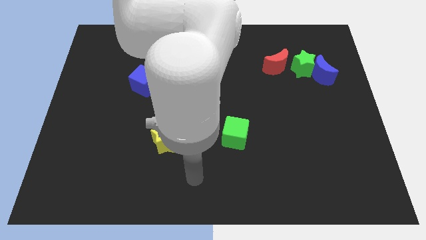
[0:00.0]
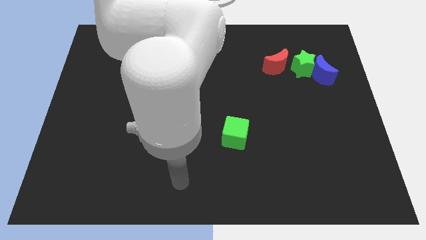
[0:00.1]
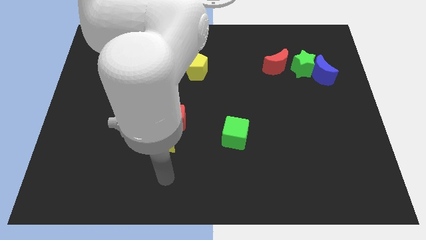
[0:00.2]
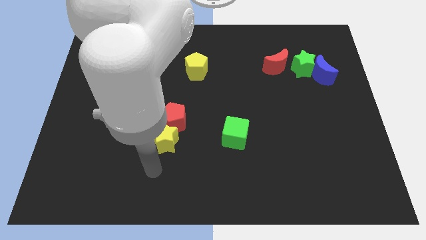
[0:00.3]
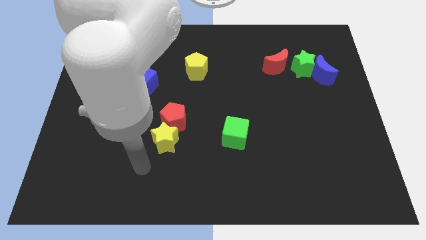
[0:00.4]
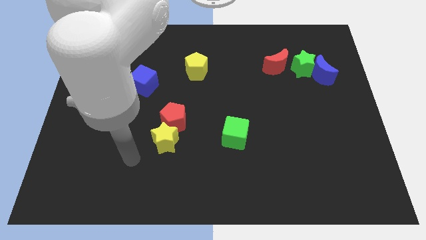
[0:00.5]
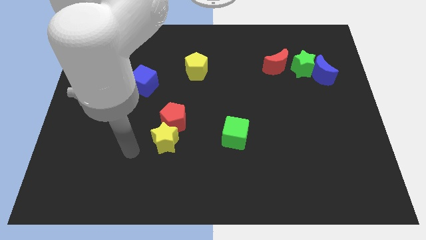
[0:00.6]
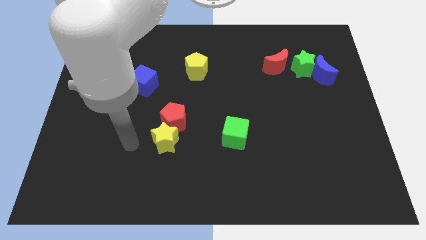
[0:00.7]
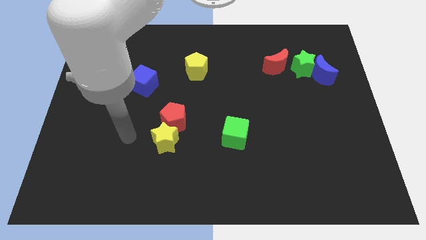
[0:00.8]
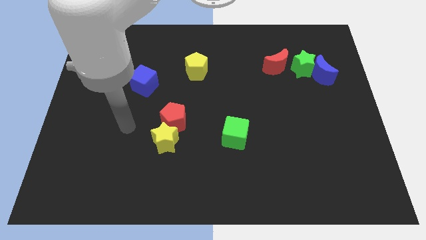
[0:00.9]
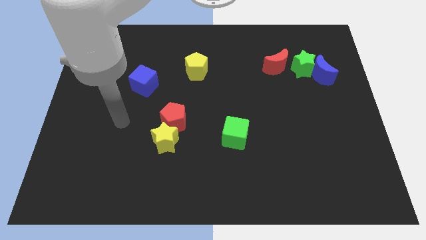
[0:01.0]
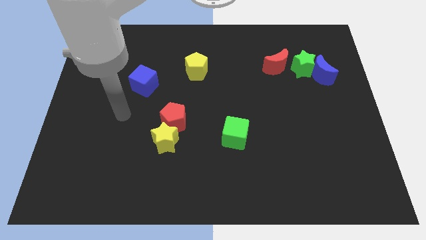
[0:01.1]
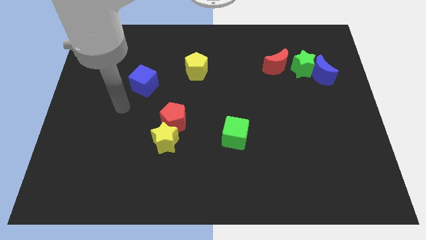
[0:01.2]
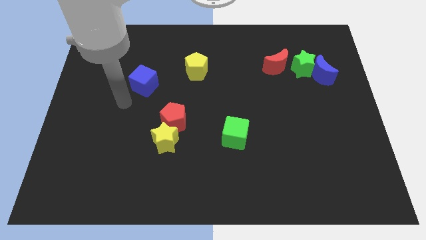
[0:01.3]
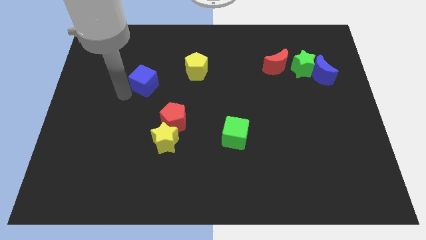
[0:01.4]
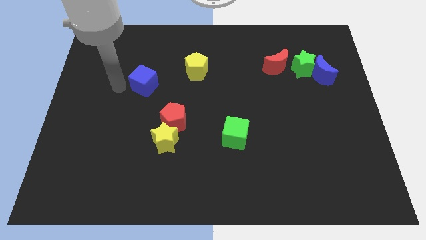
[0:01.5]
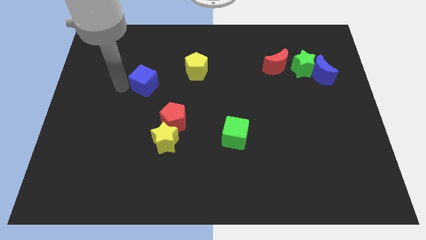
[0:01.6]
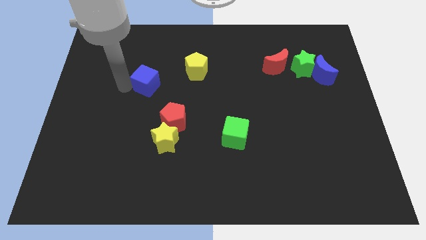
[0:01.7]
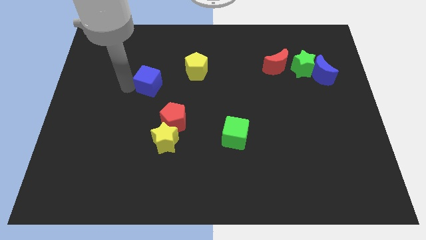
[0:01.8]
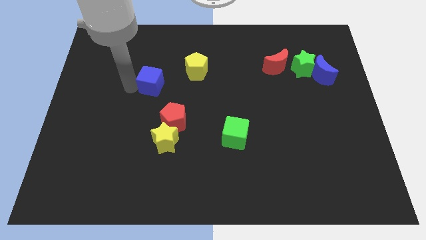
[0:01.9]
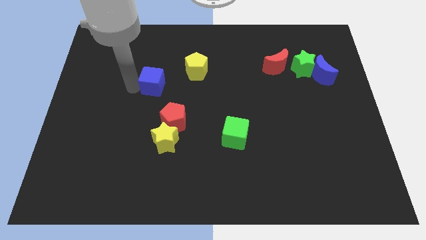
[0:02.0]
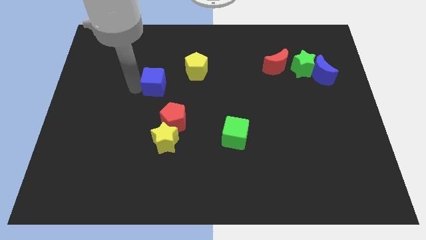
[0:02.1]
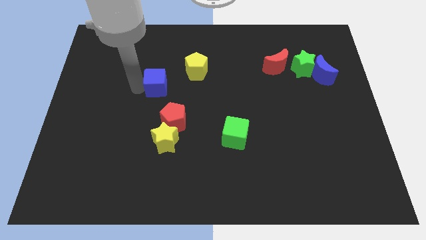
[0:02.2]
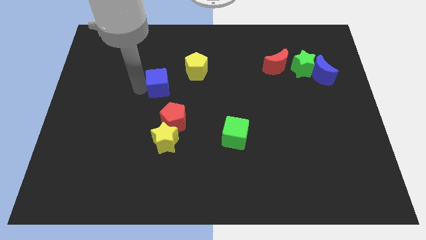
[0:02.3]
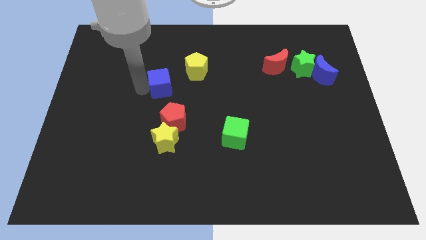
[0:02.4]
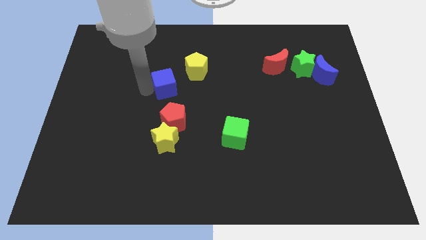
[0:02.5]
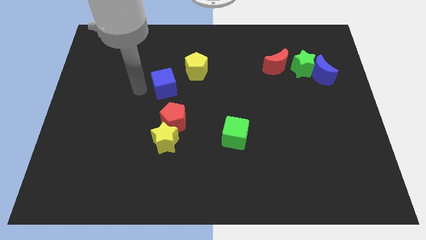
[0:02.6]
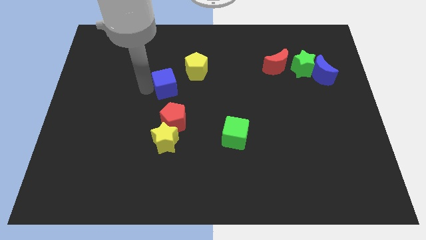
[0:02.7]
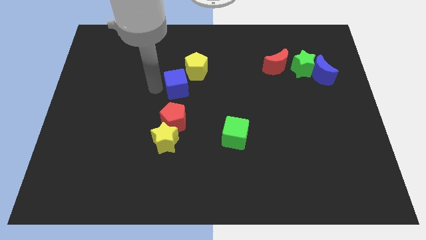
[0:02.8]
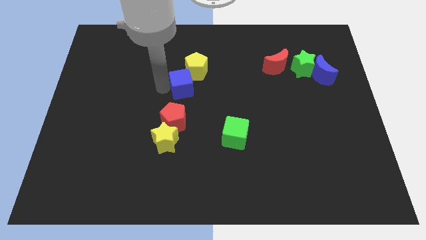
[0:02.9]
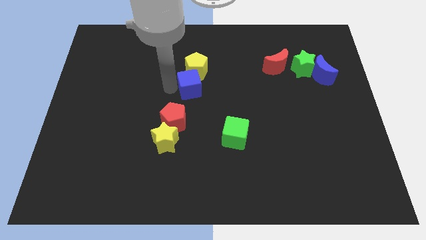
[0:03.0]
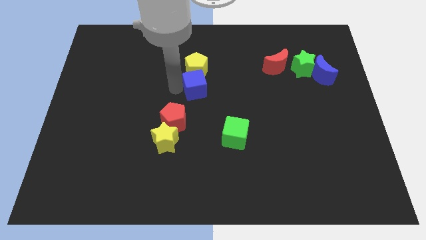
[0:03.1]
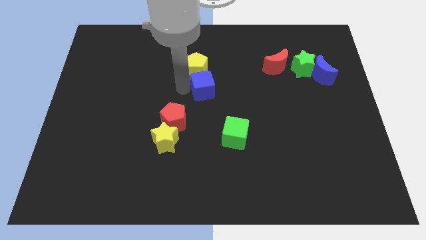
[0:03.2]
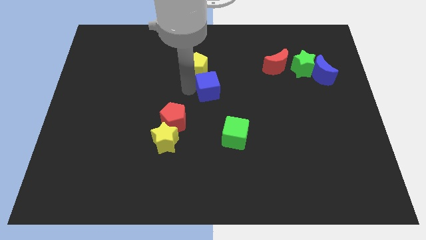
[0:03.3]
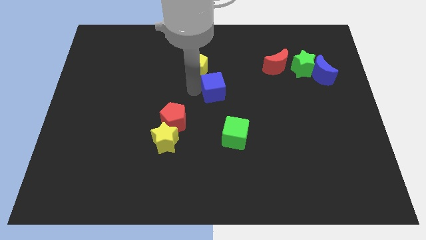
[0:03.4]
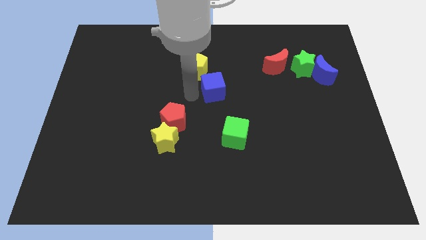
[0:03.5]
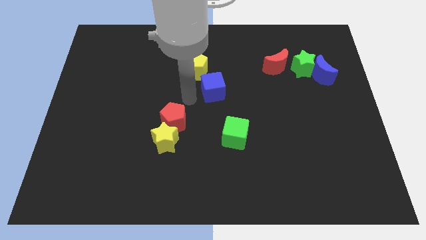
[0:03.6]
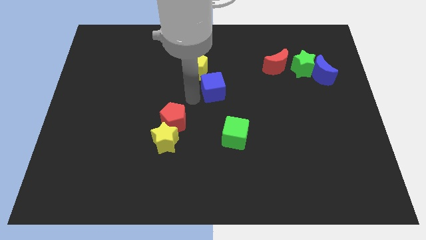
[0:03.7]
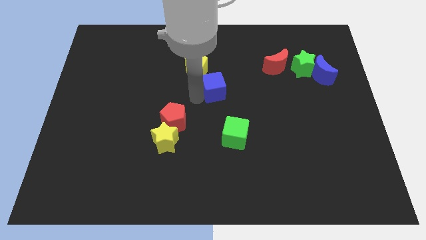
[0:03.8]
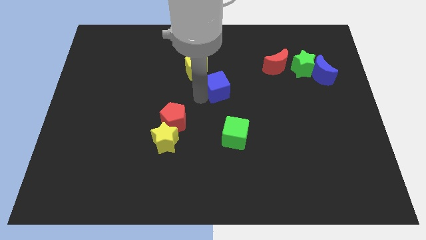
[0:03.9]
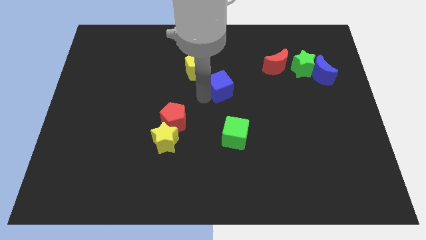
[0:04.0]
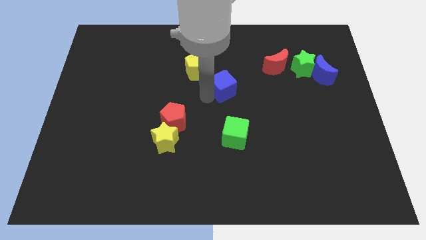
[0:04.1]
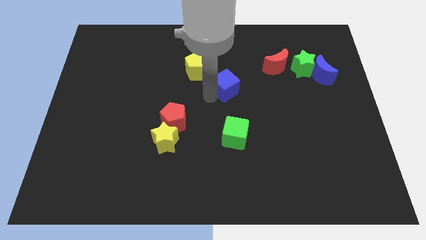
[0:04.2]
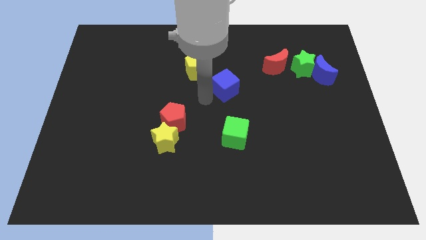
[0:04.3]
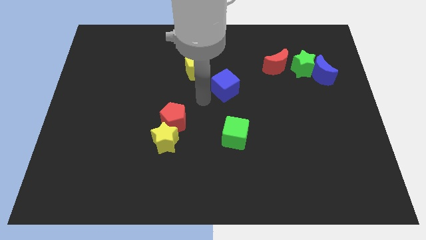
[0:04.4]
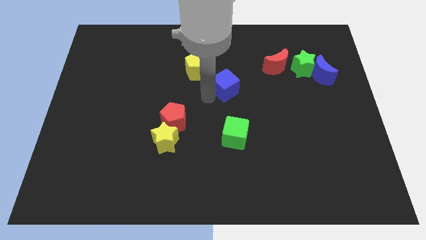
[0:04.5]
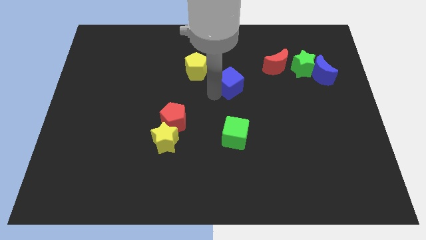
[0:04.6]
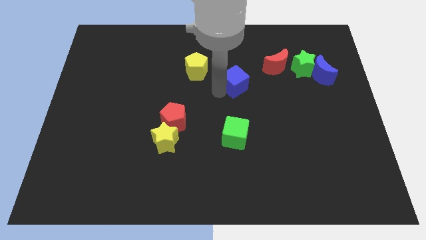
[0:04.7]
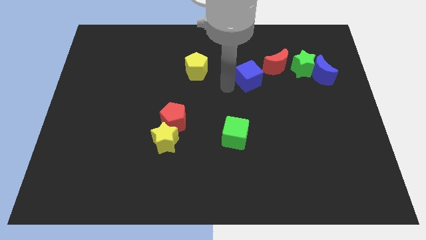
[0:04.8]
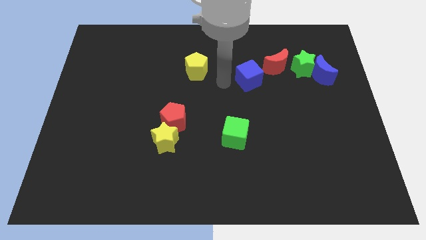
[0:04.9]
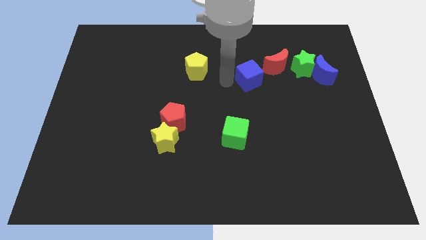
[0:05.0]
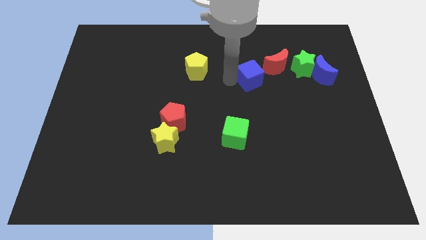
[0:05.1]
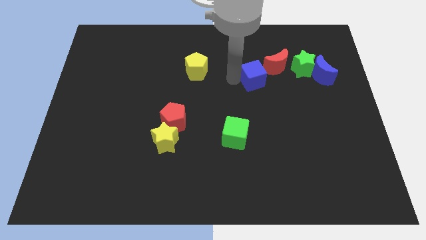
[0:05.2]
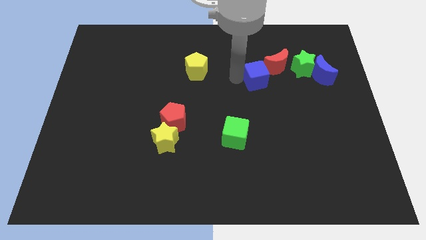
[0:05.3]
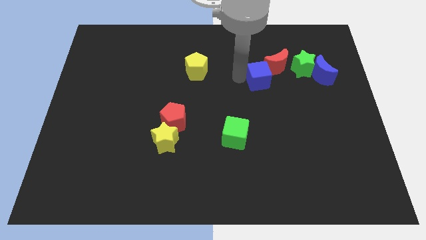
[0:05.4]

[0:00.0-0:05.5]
put the blue cube just left of the blue moon

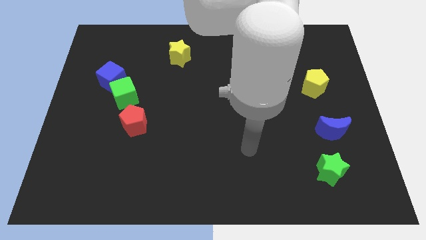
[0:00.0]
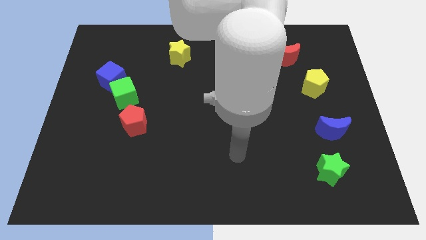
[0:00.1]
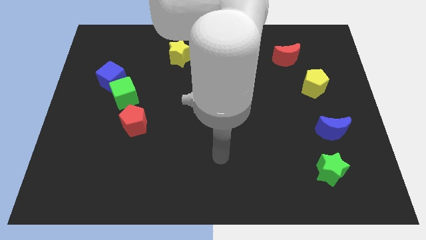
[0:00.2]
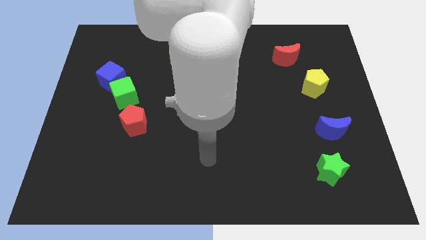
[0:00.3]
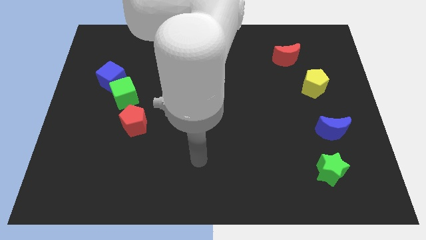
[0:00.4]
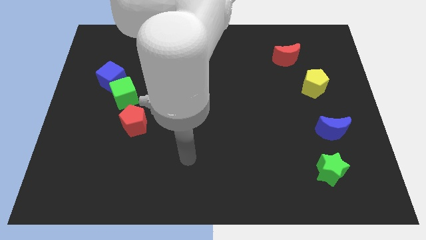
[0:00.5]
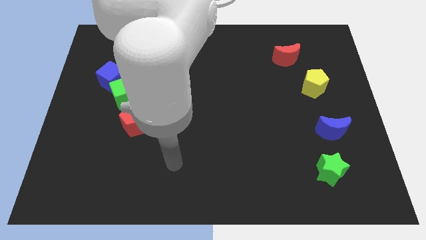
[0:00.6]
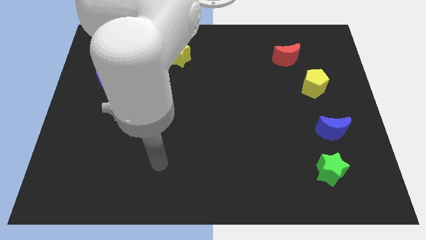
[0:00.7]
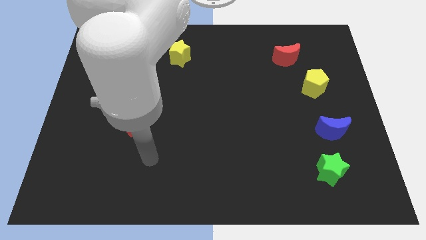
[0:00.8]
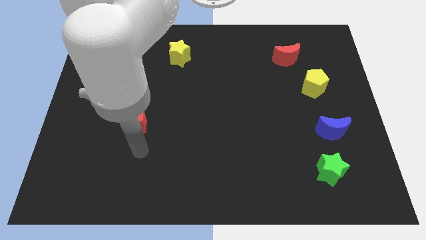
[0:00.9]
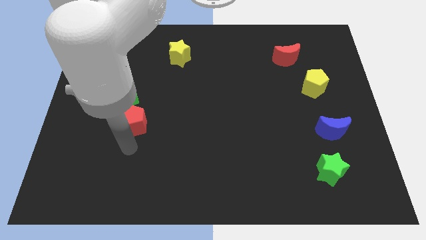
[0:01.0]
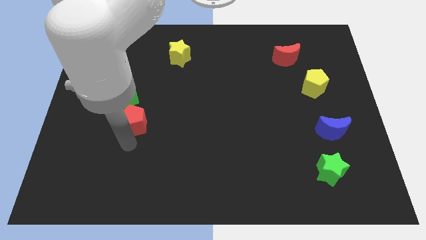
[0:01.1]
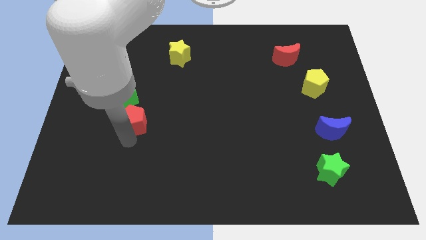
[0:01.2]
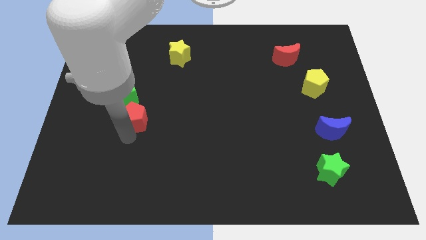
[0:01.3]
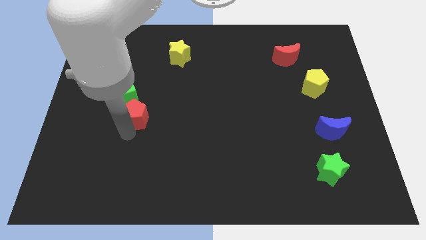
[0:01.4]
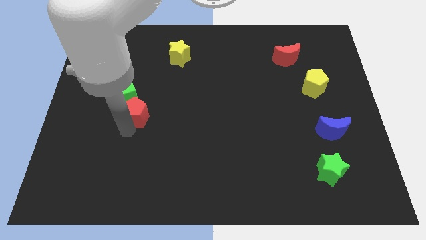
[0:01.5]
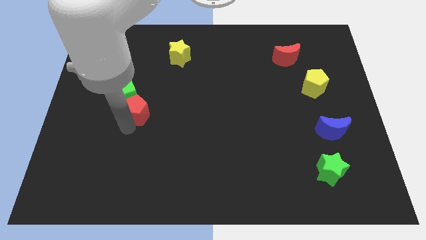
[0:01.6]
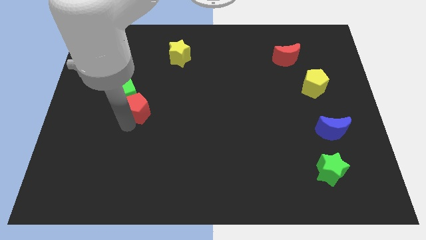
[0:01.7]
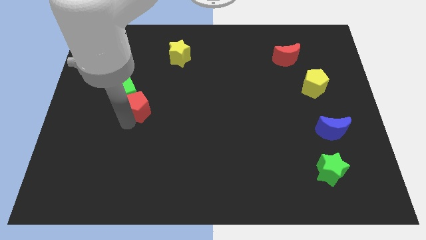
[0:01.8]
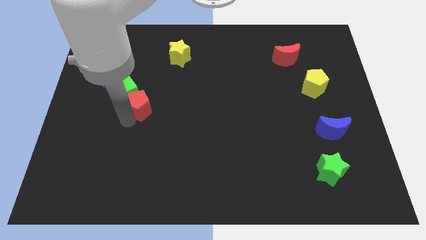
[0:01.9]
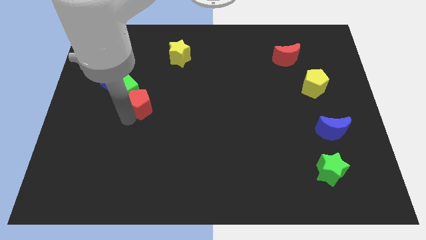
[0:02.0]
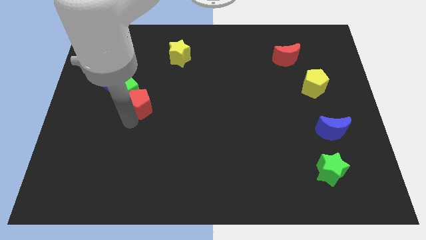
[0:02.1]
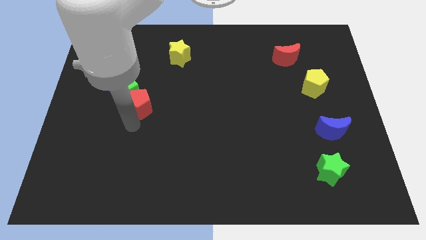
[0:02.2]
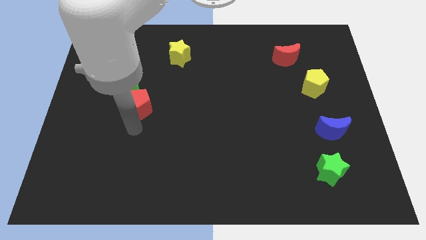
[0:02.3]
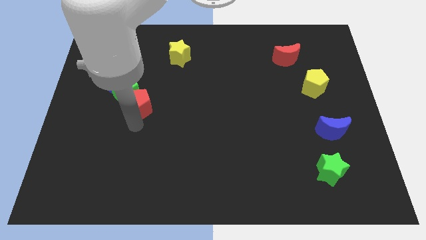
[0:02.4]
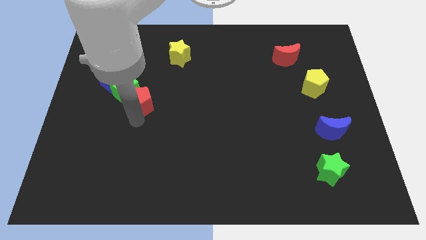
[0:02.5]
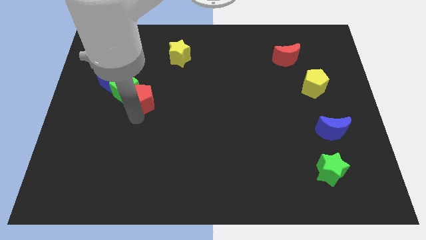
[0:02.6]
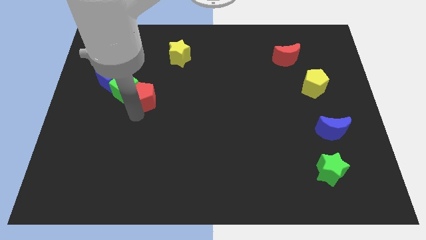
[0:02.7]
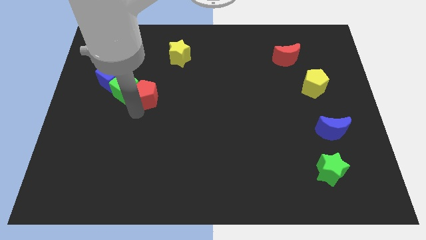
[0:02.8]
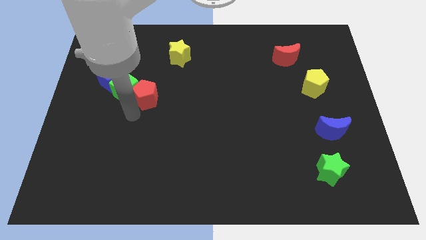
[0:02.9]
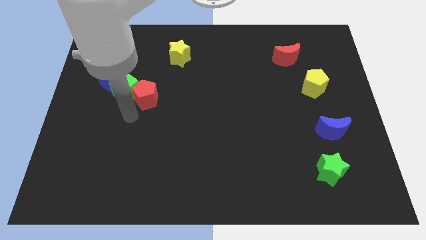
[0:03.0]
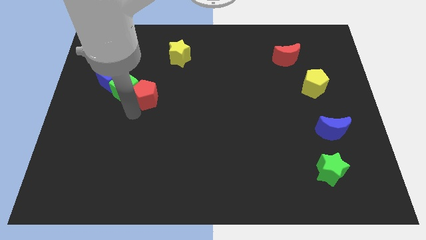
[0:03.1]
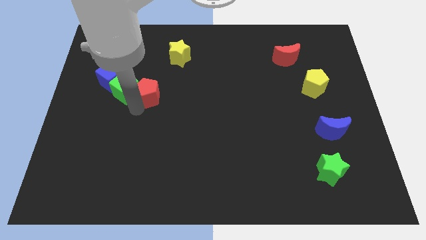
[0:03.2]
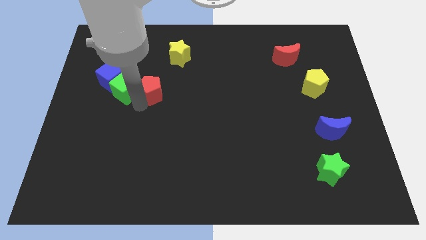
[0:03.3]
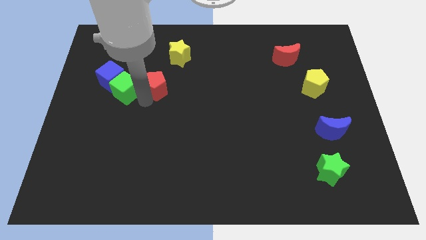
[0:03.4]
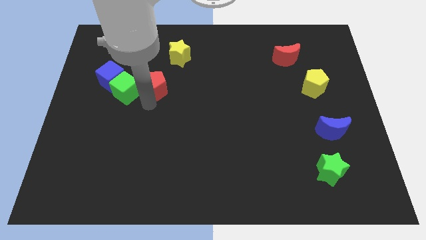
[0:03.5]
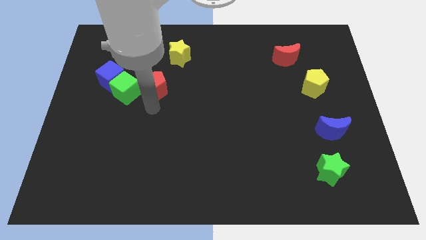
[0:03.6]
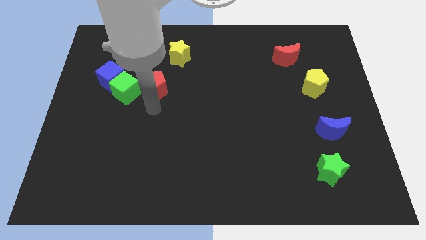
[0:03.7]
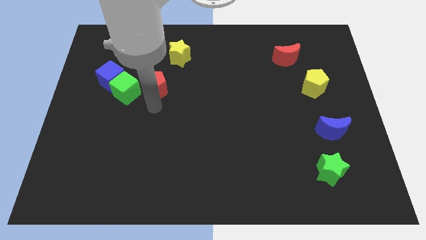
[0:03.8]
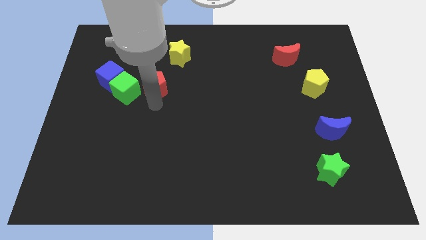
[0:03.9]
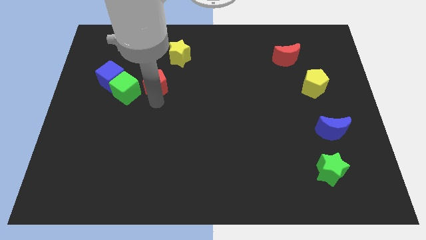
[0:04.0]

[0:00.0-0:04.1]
slide the red pentagon to the bottom left of the yellow star
